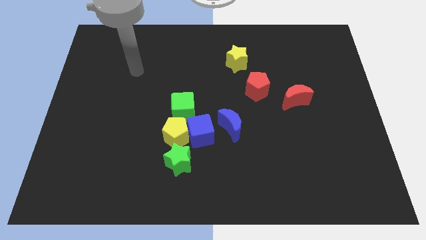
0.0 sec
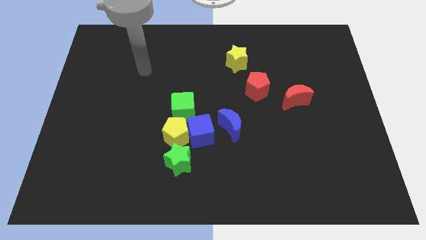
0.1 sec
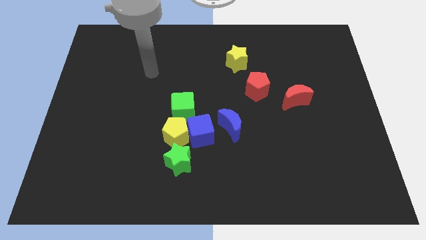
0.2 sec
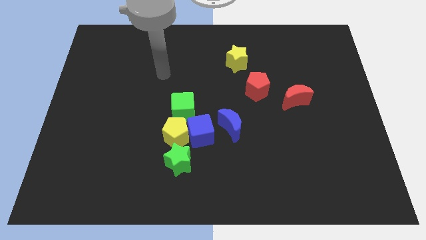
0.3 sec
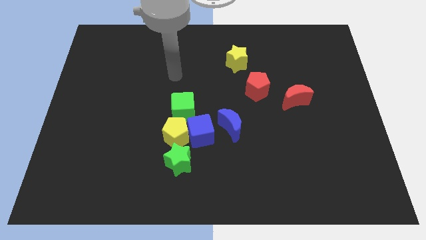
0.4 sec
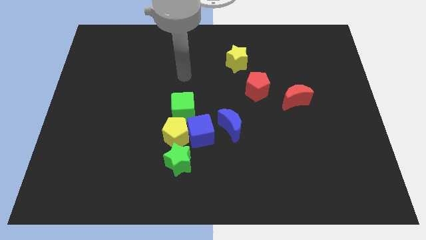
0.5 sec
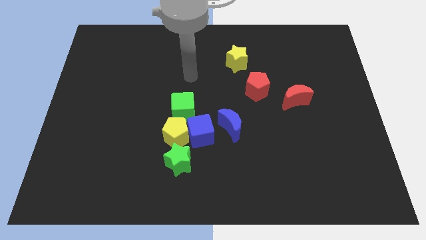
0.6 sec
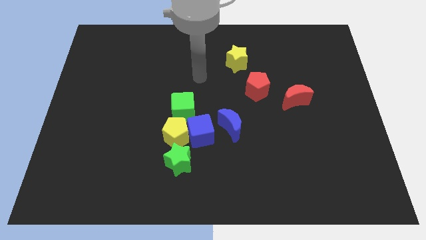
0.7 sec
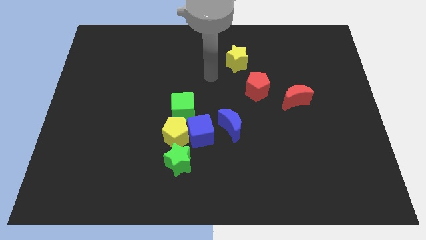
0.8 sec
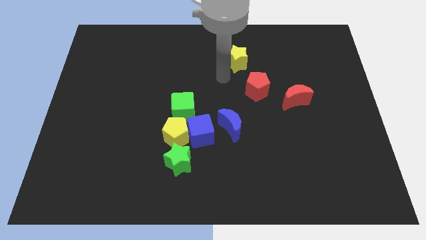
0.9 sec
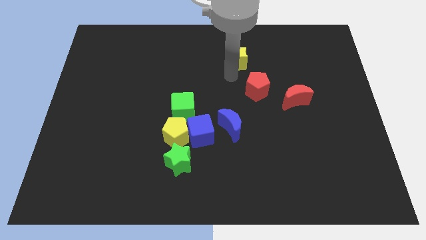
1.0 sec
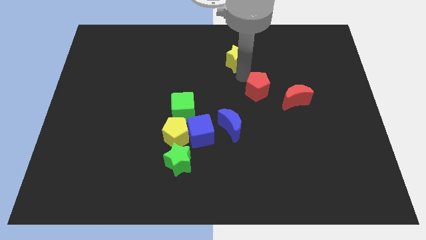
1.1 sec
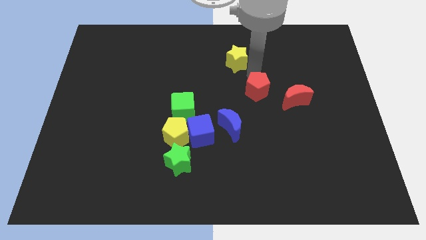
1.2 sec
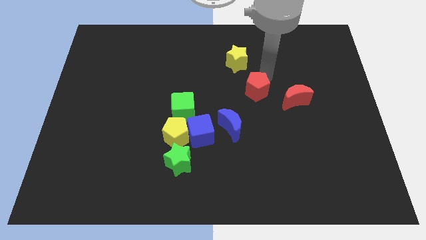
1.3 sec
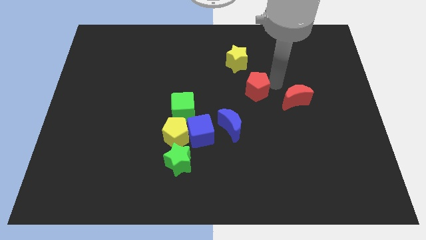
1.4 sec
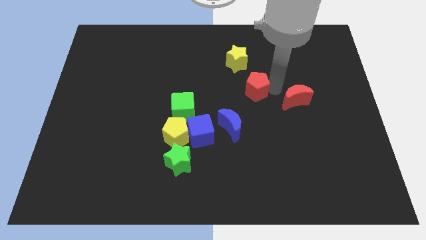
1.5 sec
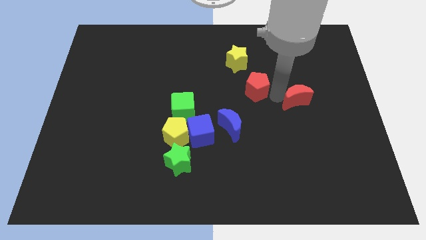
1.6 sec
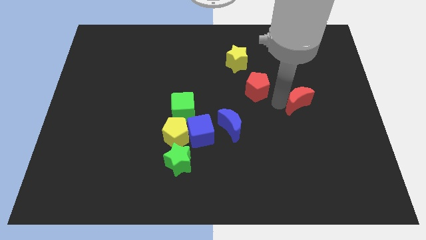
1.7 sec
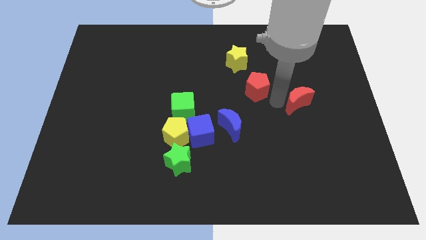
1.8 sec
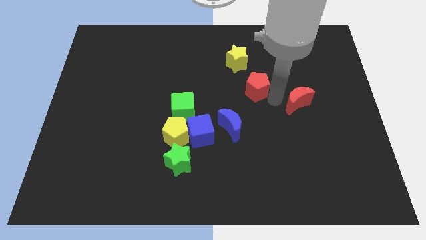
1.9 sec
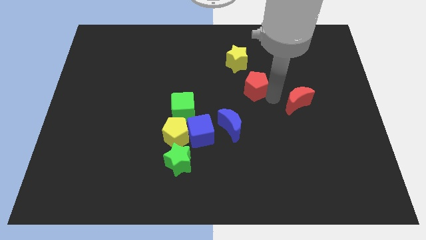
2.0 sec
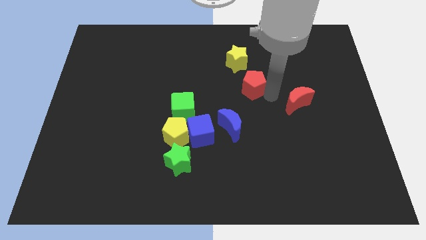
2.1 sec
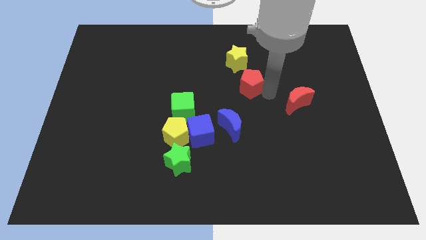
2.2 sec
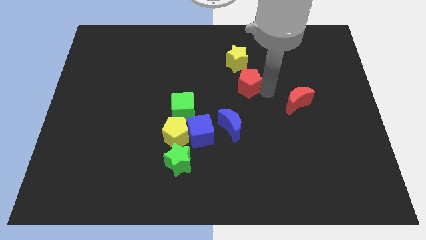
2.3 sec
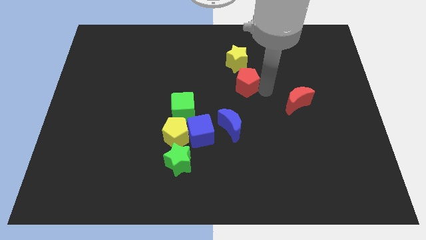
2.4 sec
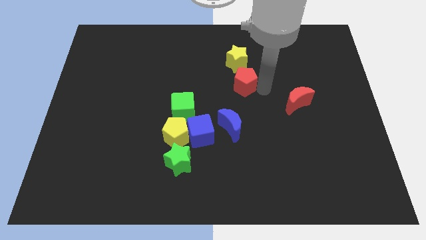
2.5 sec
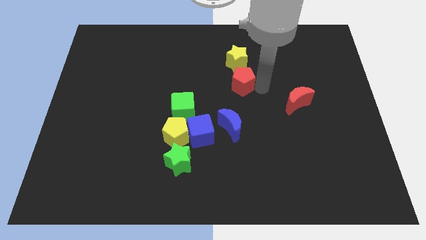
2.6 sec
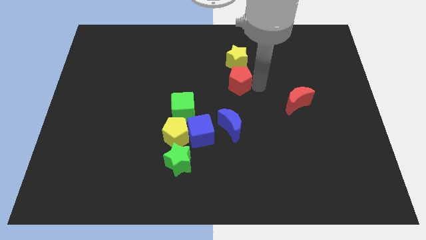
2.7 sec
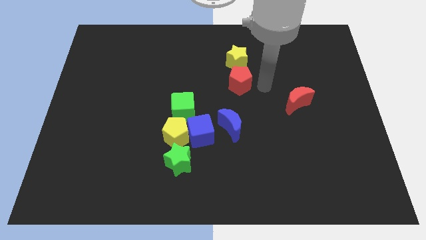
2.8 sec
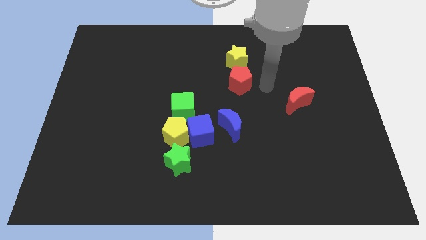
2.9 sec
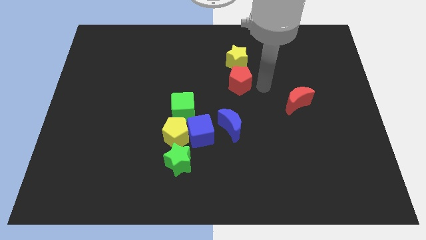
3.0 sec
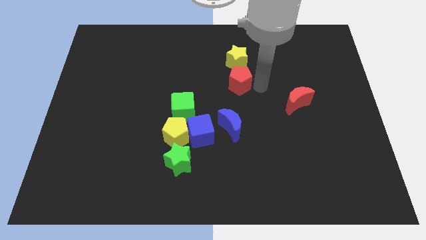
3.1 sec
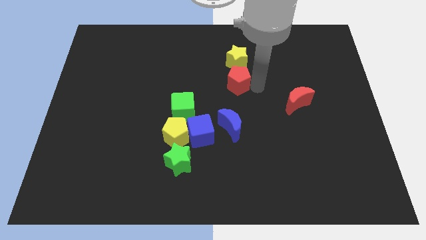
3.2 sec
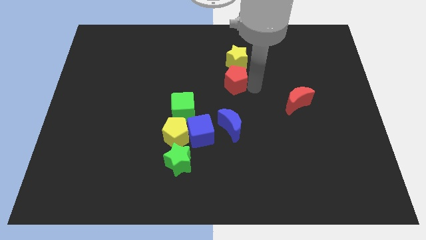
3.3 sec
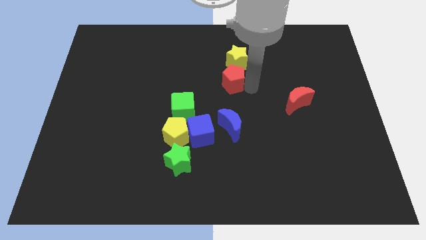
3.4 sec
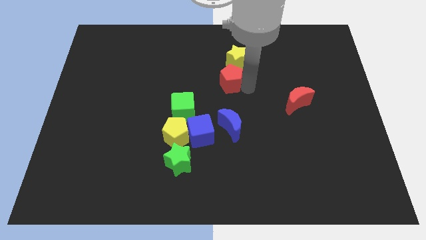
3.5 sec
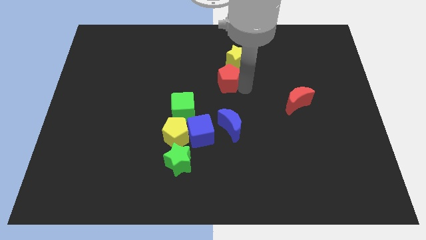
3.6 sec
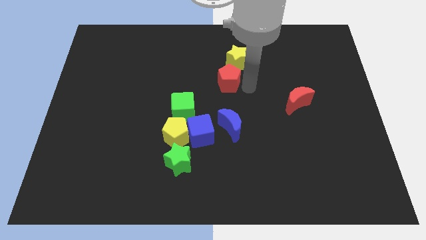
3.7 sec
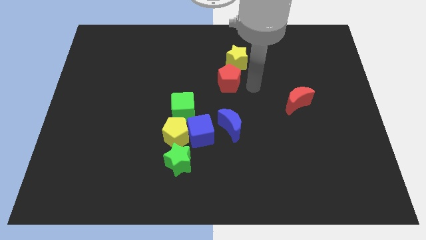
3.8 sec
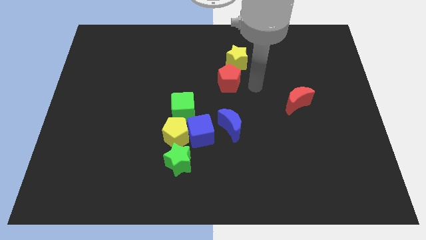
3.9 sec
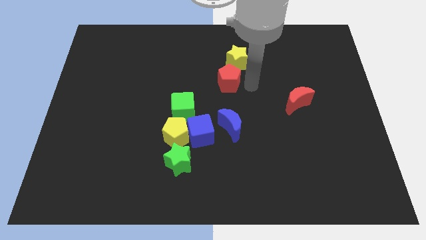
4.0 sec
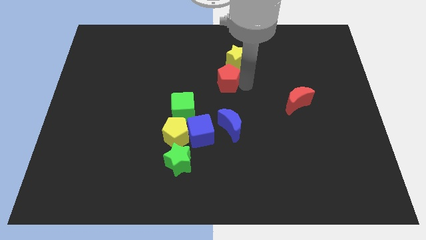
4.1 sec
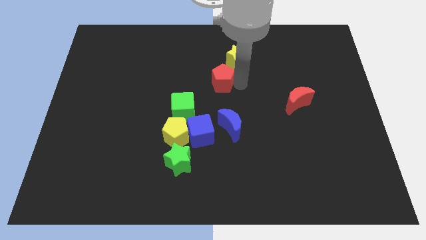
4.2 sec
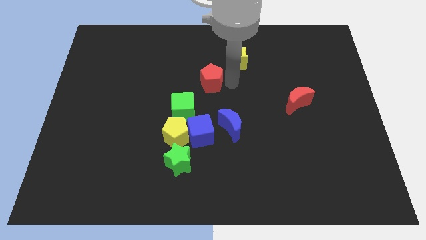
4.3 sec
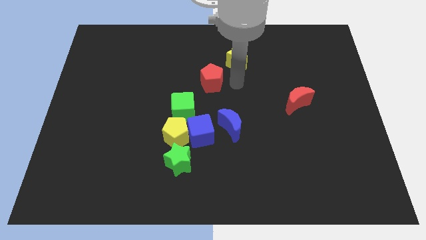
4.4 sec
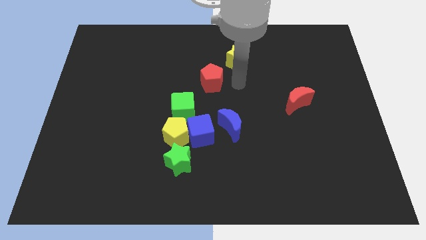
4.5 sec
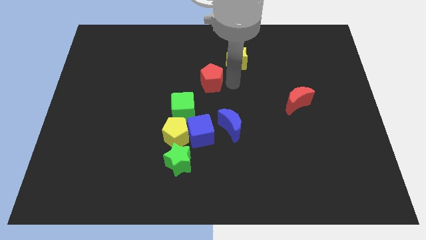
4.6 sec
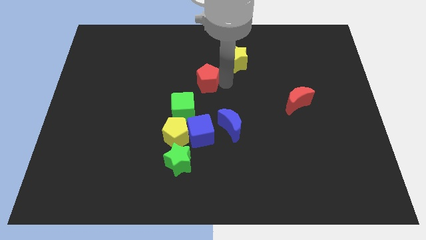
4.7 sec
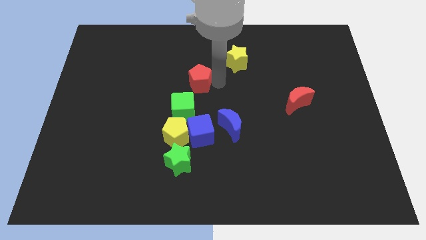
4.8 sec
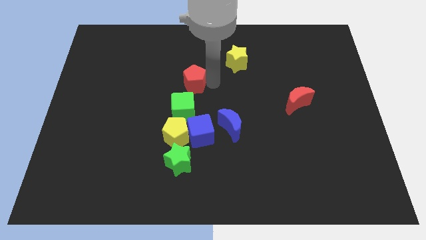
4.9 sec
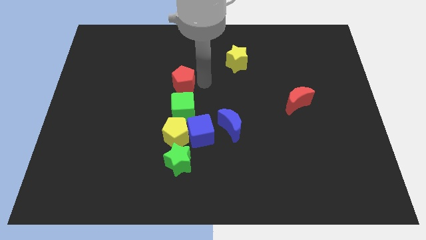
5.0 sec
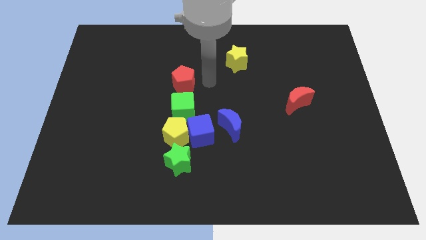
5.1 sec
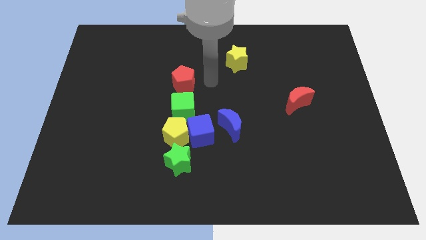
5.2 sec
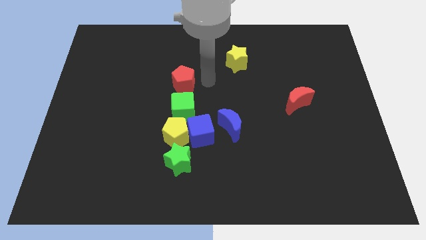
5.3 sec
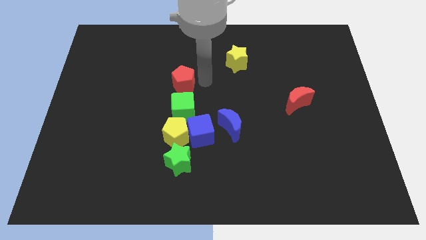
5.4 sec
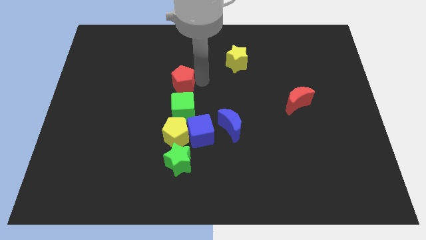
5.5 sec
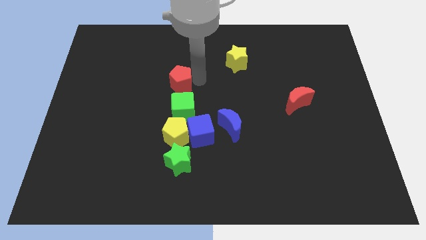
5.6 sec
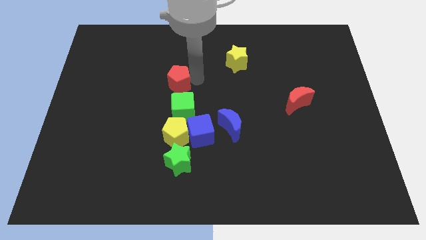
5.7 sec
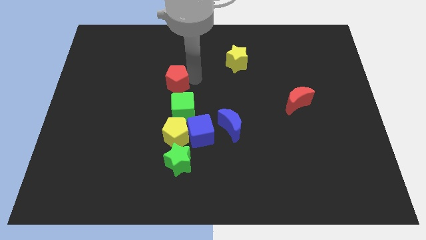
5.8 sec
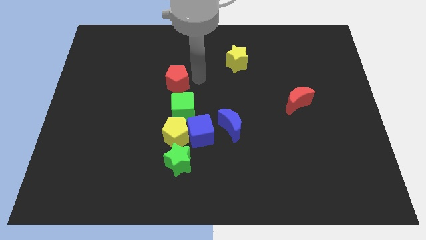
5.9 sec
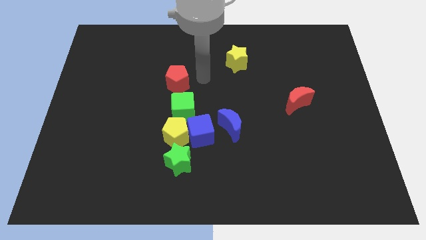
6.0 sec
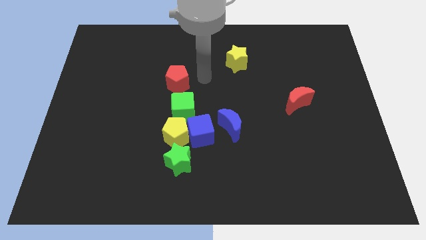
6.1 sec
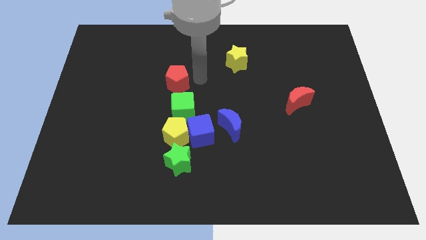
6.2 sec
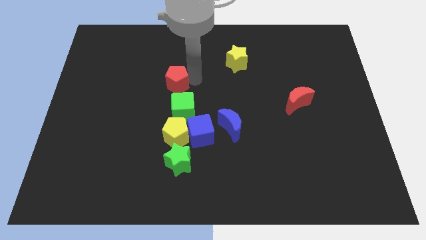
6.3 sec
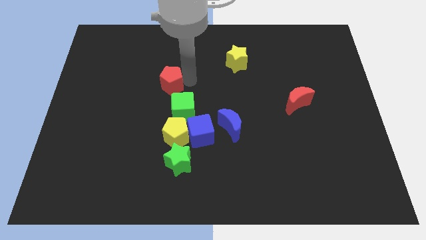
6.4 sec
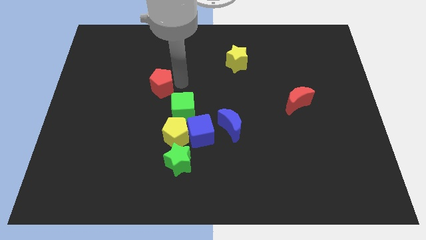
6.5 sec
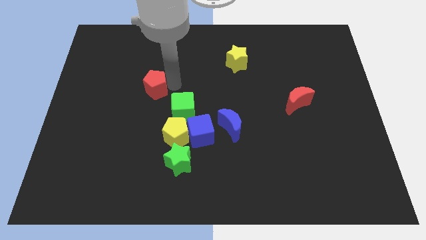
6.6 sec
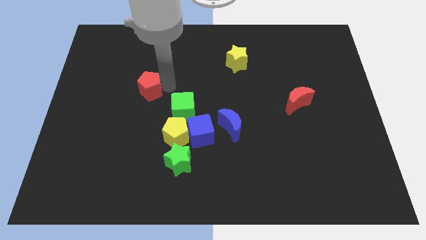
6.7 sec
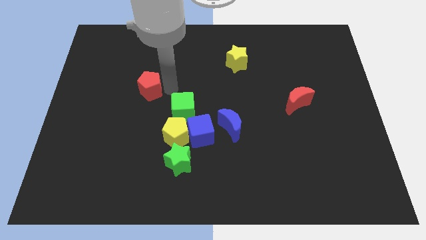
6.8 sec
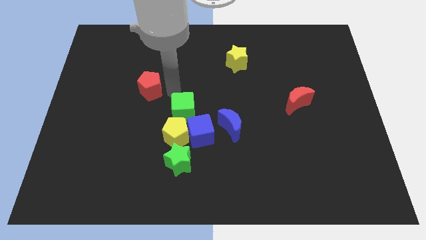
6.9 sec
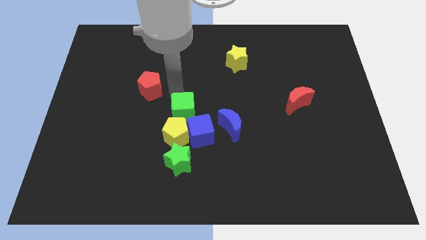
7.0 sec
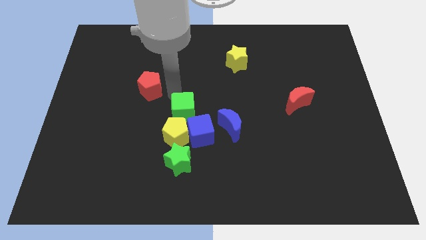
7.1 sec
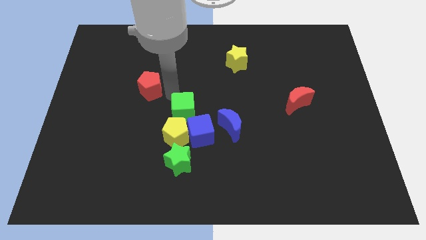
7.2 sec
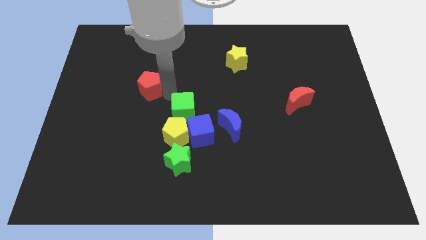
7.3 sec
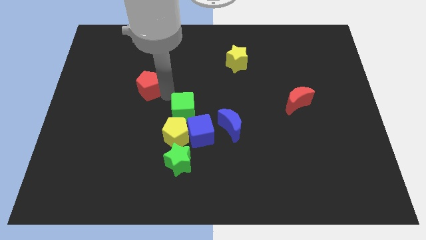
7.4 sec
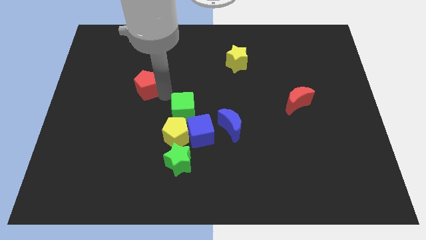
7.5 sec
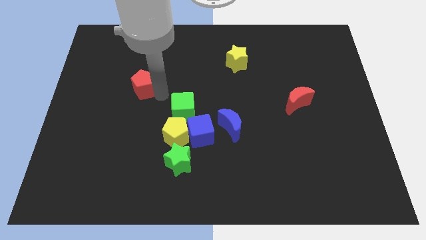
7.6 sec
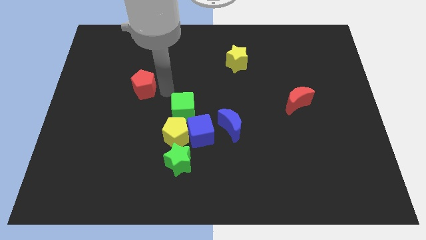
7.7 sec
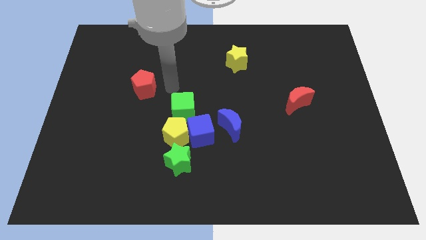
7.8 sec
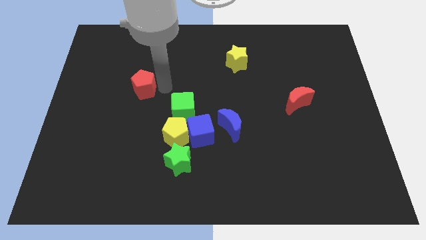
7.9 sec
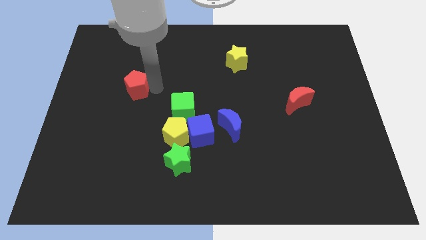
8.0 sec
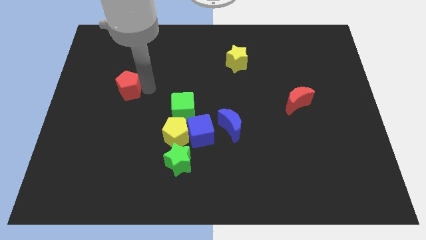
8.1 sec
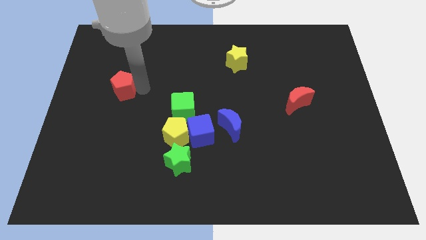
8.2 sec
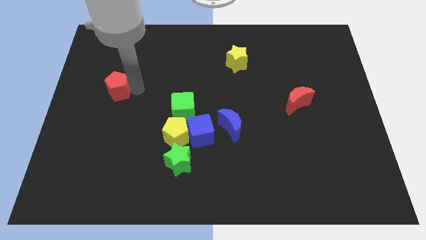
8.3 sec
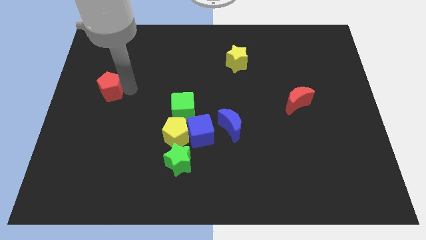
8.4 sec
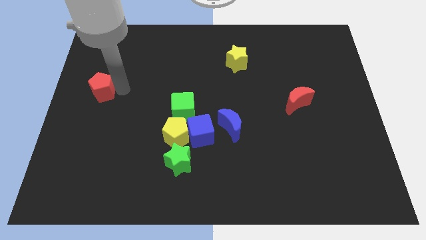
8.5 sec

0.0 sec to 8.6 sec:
slide the red pentagon to the left side of the board
